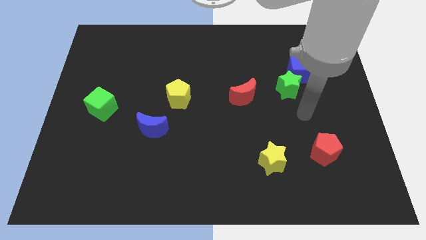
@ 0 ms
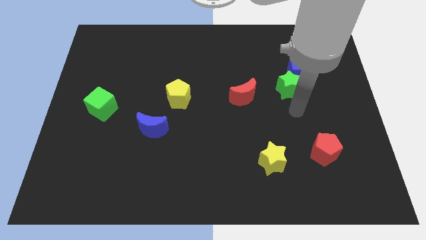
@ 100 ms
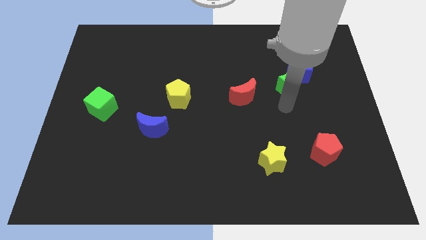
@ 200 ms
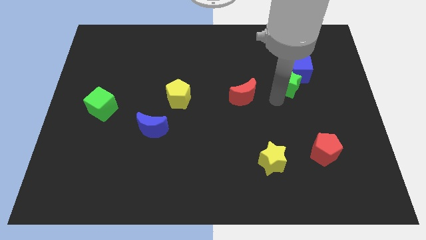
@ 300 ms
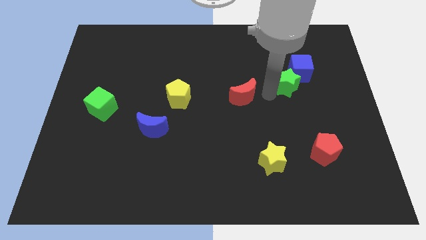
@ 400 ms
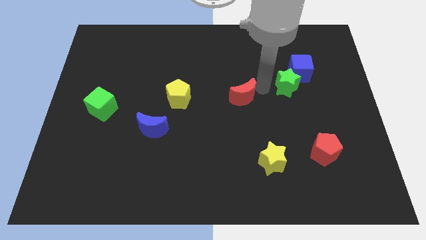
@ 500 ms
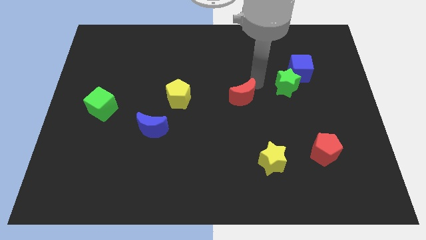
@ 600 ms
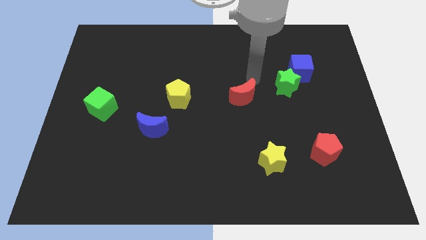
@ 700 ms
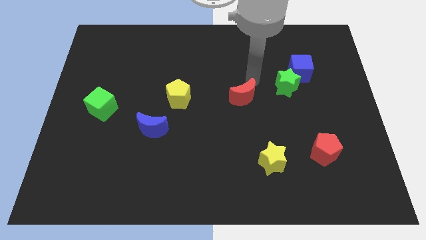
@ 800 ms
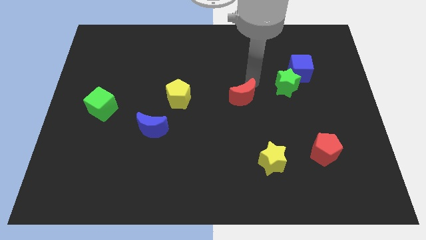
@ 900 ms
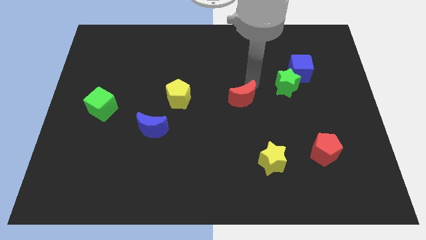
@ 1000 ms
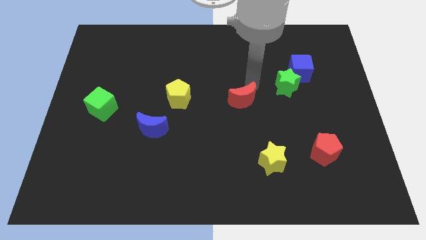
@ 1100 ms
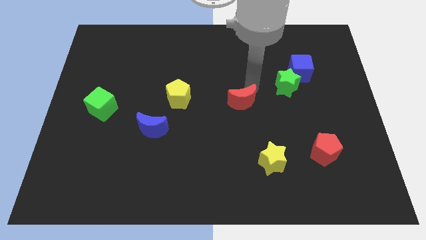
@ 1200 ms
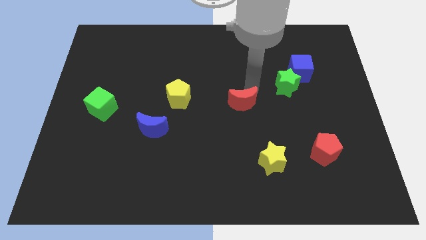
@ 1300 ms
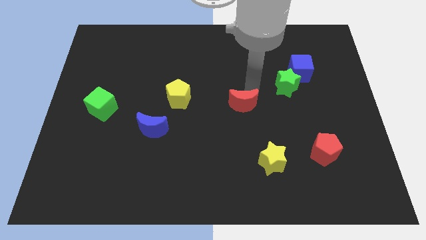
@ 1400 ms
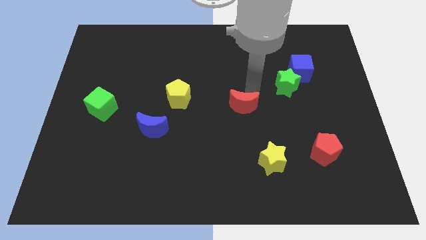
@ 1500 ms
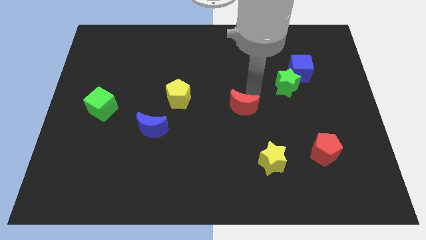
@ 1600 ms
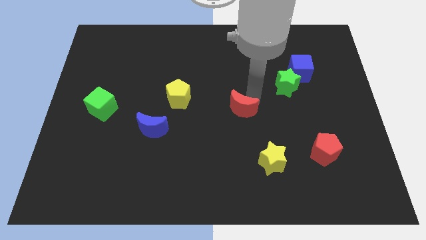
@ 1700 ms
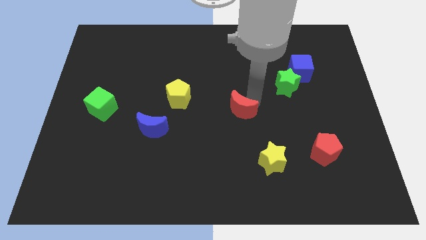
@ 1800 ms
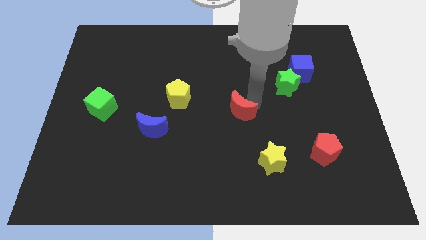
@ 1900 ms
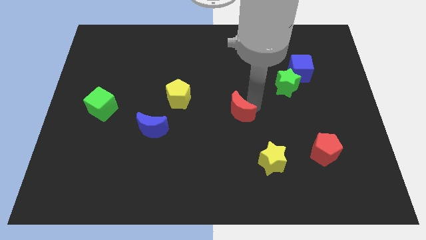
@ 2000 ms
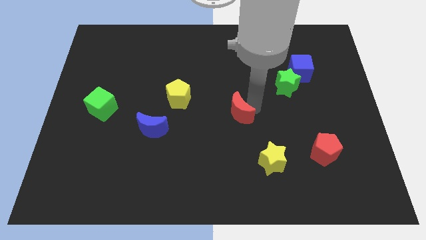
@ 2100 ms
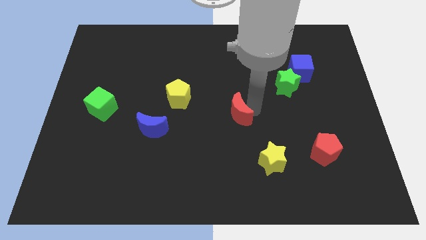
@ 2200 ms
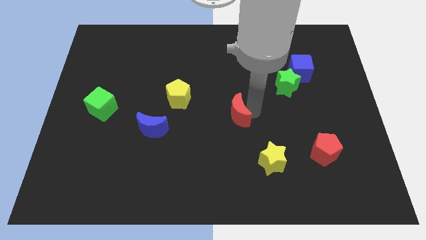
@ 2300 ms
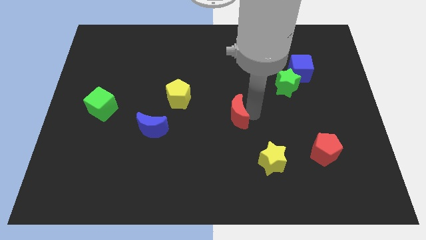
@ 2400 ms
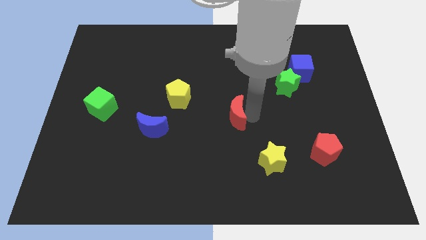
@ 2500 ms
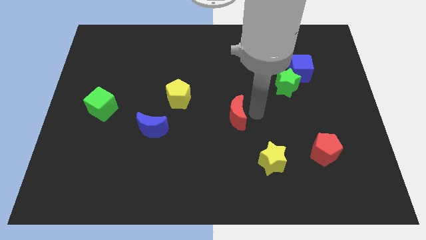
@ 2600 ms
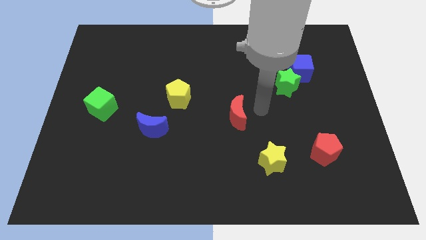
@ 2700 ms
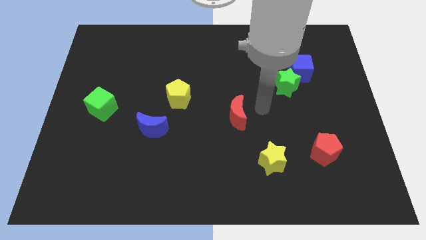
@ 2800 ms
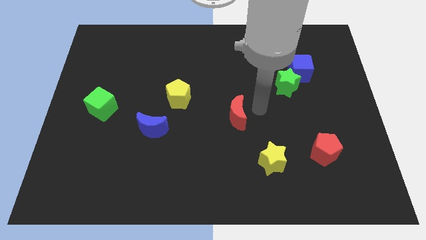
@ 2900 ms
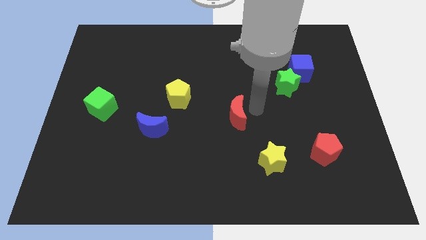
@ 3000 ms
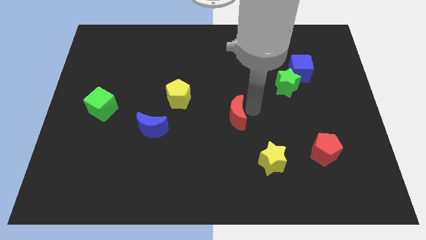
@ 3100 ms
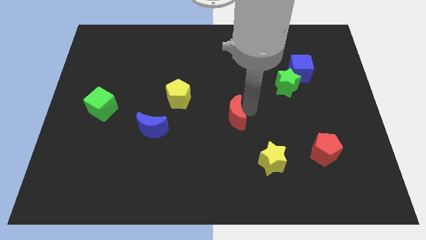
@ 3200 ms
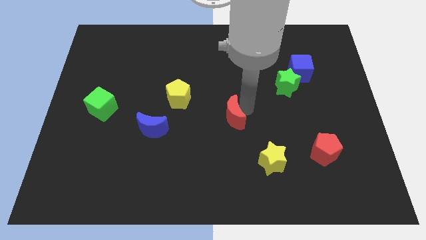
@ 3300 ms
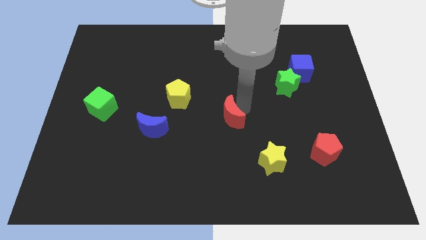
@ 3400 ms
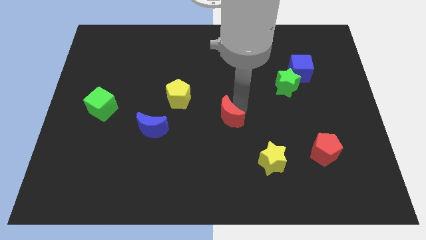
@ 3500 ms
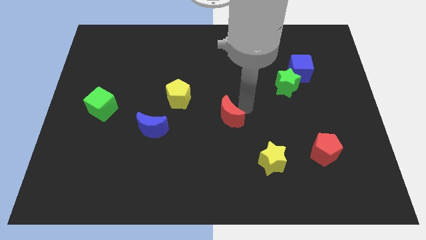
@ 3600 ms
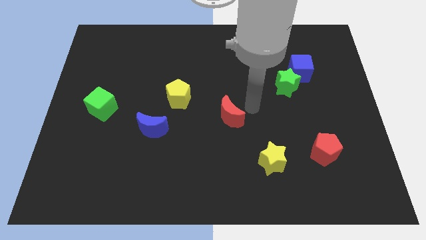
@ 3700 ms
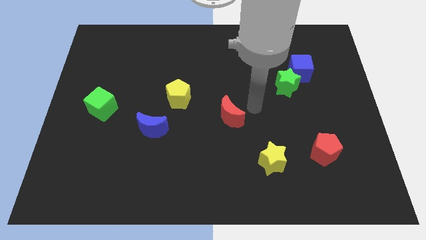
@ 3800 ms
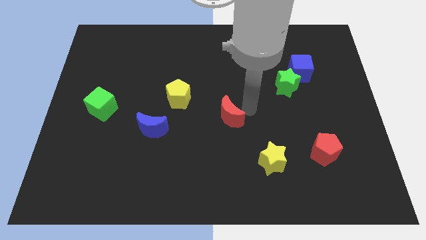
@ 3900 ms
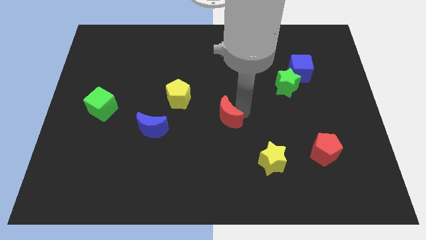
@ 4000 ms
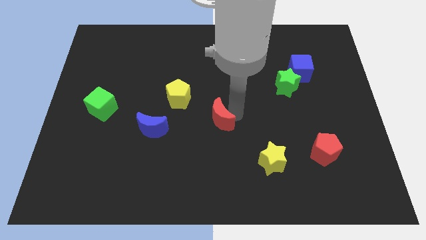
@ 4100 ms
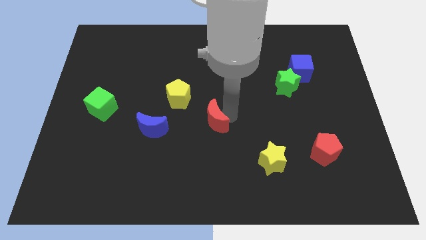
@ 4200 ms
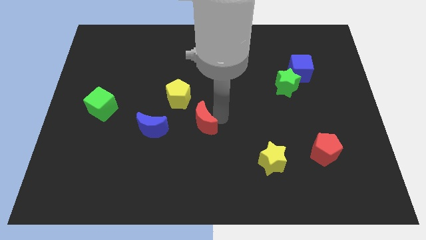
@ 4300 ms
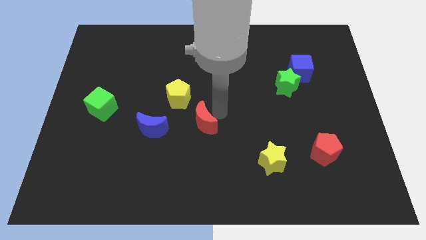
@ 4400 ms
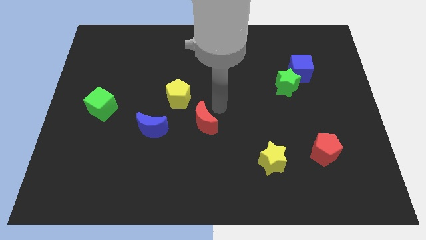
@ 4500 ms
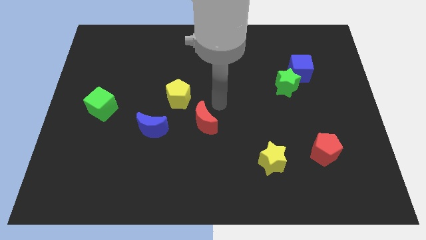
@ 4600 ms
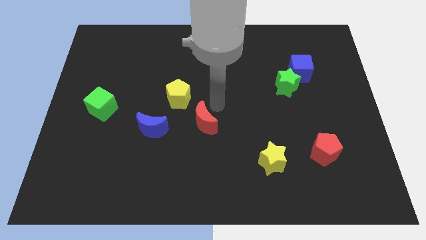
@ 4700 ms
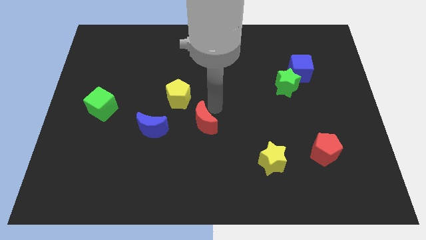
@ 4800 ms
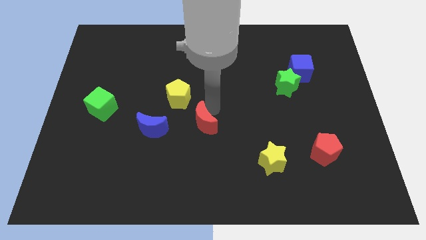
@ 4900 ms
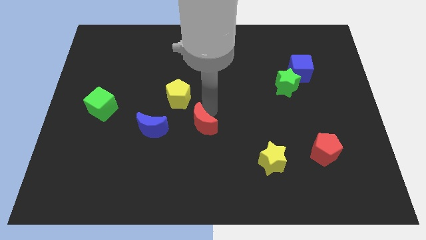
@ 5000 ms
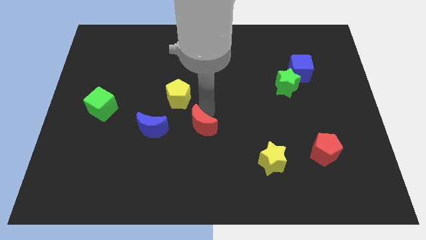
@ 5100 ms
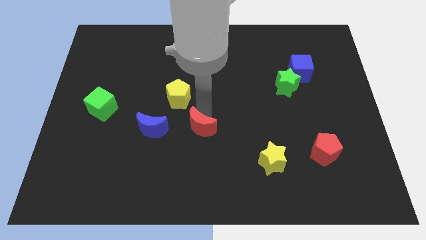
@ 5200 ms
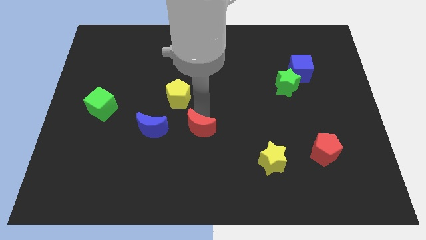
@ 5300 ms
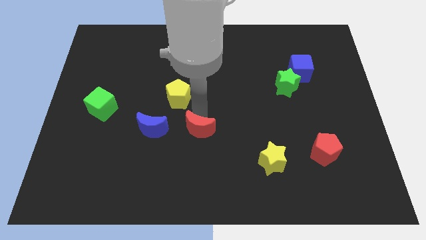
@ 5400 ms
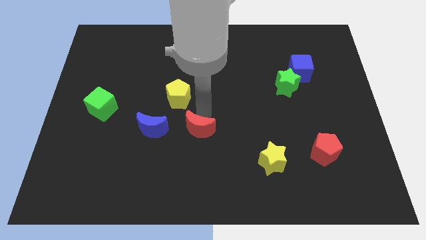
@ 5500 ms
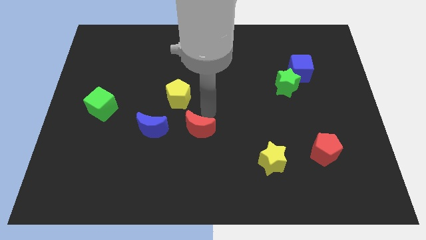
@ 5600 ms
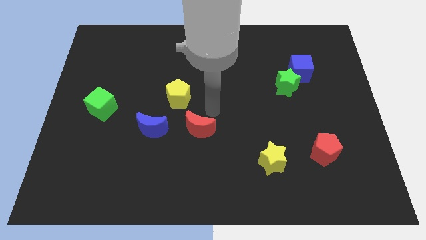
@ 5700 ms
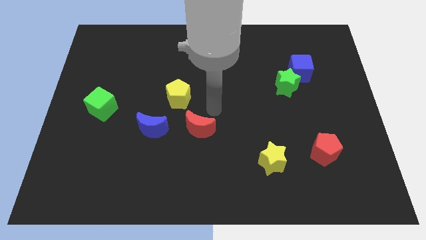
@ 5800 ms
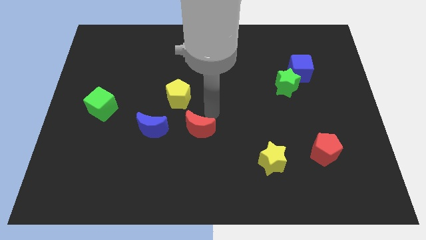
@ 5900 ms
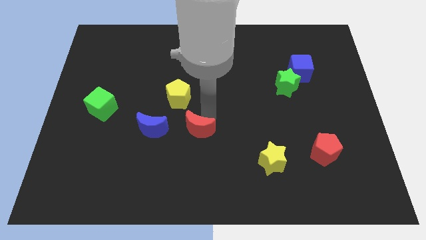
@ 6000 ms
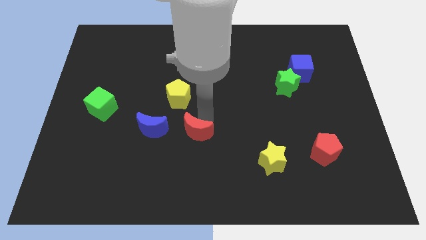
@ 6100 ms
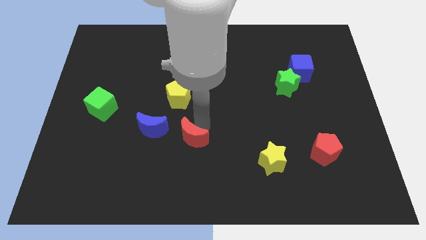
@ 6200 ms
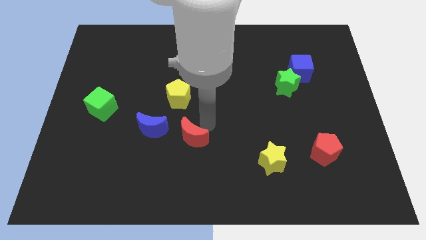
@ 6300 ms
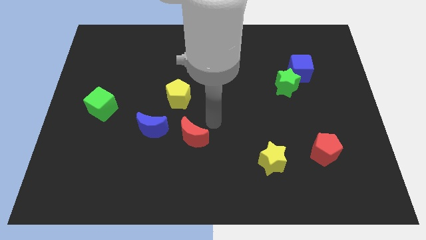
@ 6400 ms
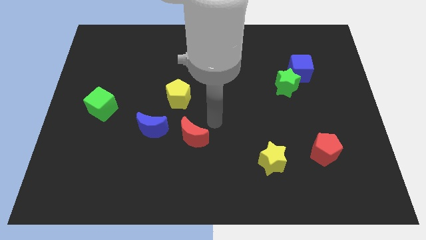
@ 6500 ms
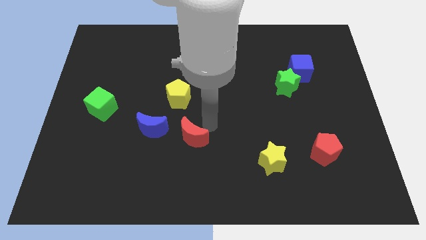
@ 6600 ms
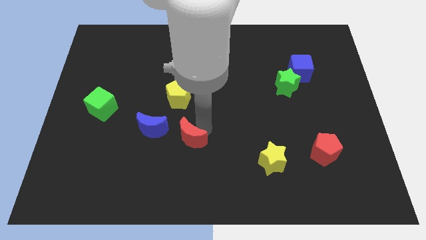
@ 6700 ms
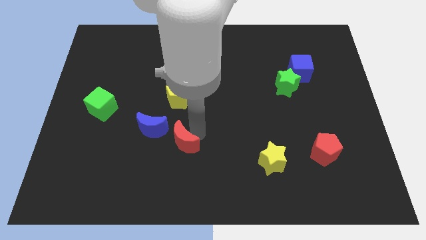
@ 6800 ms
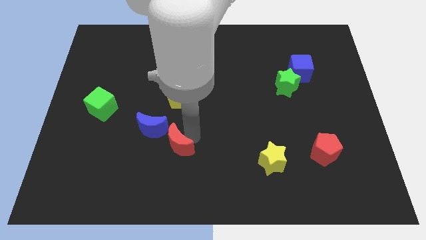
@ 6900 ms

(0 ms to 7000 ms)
push the red moon diagonally down and to the left

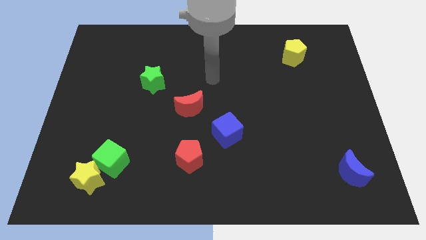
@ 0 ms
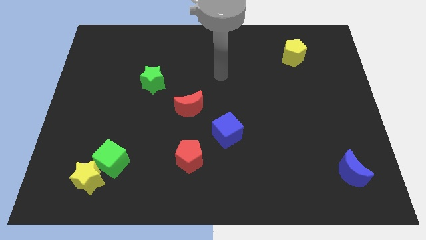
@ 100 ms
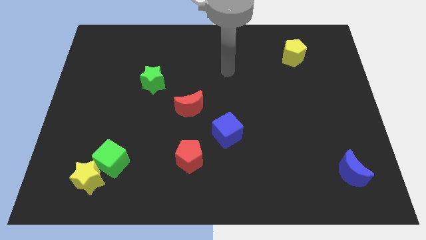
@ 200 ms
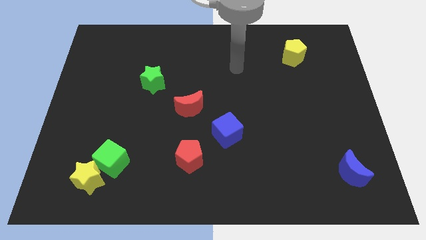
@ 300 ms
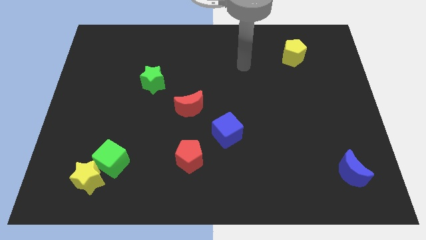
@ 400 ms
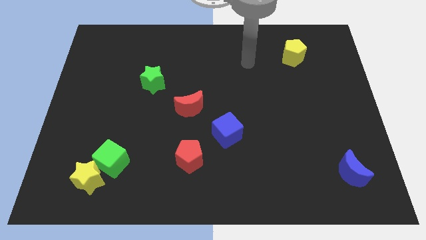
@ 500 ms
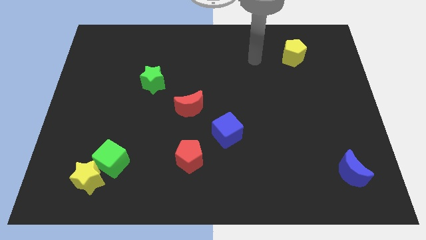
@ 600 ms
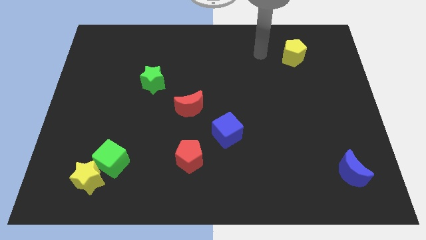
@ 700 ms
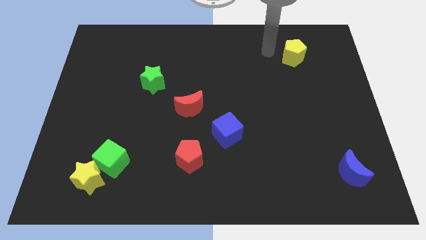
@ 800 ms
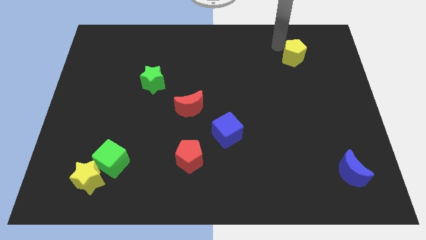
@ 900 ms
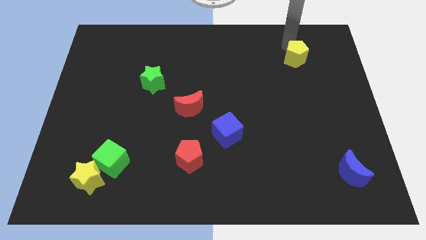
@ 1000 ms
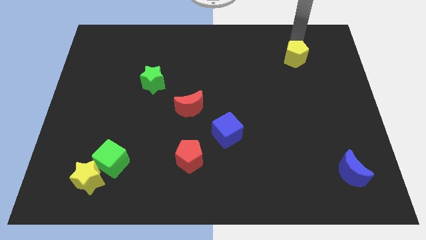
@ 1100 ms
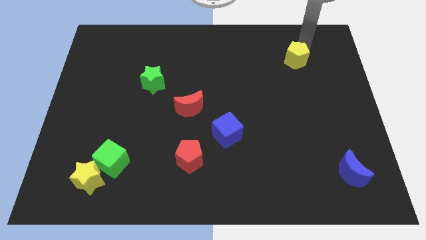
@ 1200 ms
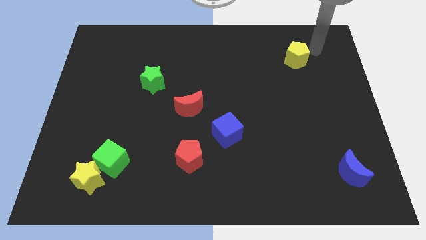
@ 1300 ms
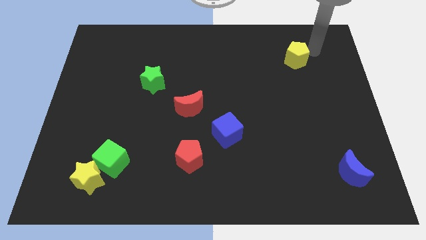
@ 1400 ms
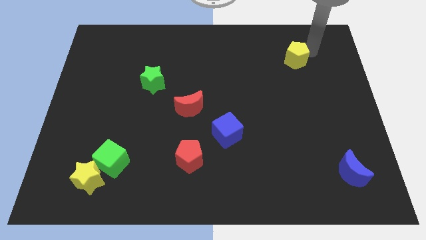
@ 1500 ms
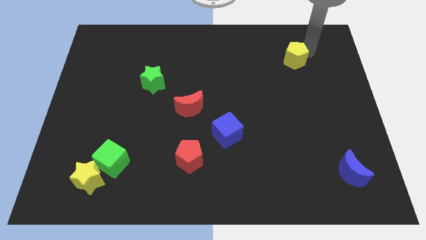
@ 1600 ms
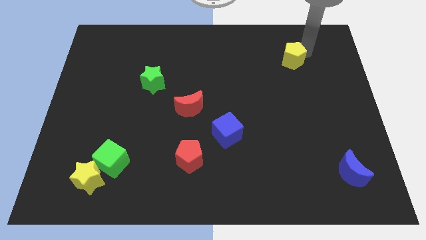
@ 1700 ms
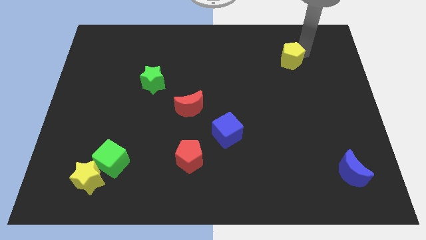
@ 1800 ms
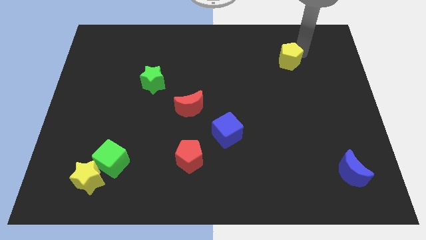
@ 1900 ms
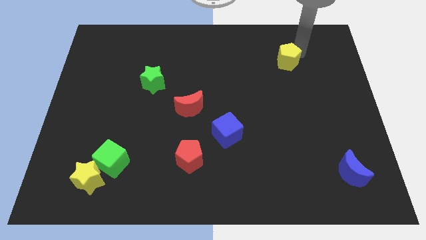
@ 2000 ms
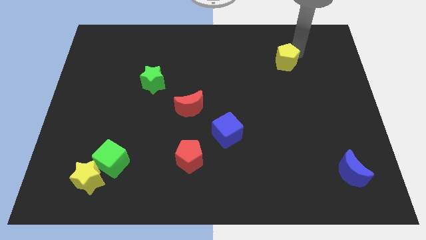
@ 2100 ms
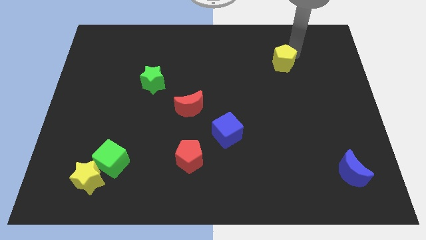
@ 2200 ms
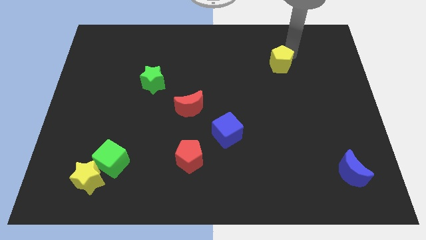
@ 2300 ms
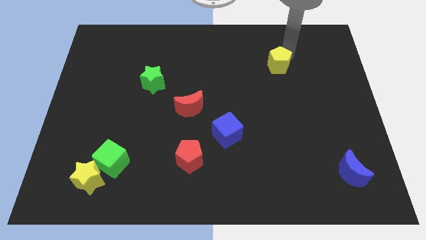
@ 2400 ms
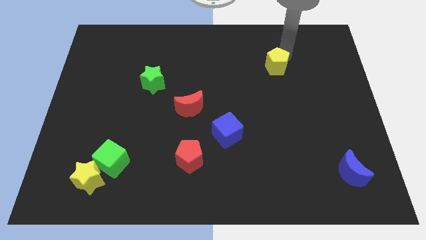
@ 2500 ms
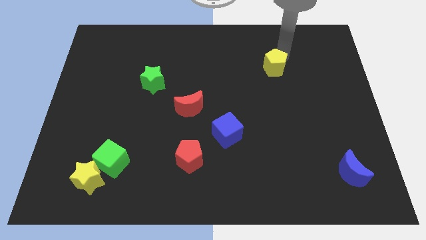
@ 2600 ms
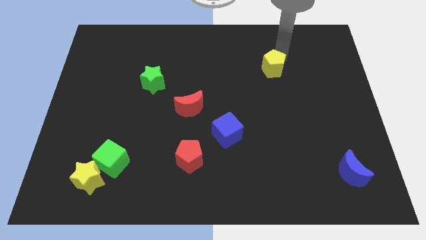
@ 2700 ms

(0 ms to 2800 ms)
slide the yellow pentagon a little bit diagonally downwards and to the left
